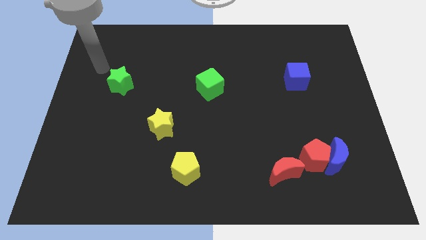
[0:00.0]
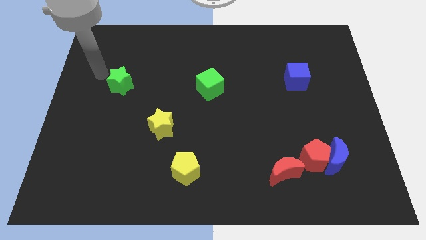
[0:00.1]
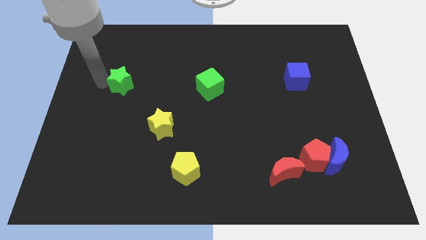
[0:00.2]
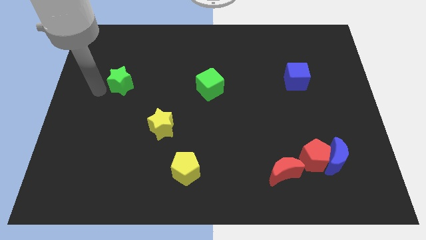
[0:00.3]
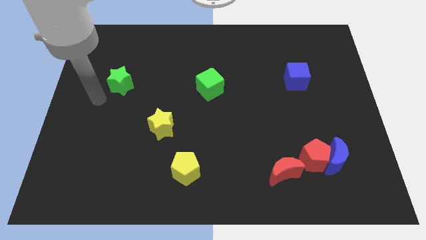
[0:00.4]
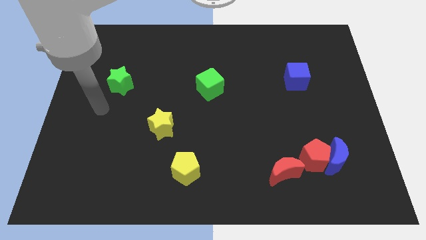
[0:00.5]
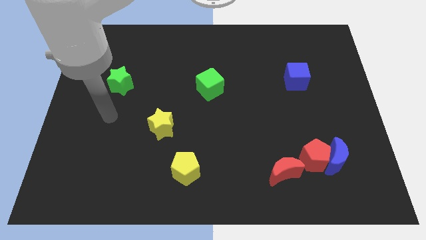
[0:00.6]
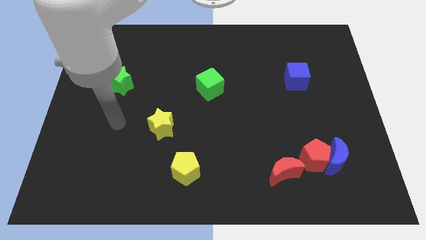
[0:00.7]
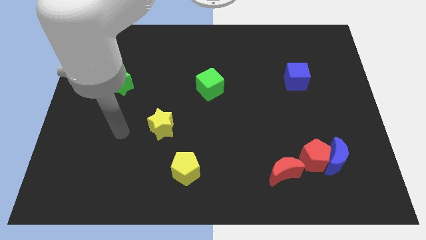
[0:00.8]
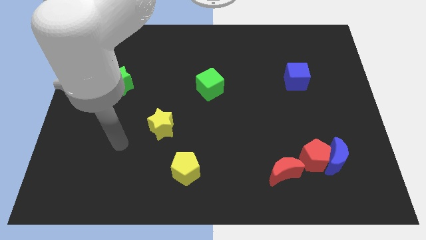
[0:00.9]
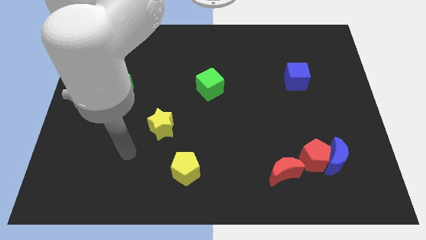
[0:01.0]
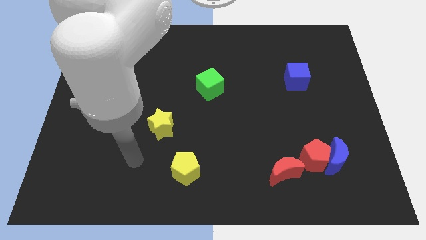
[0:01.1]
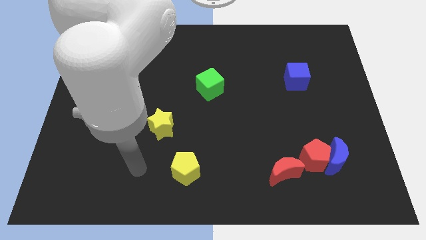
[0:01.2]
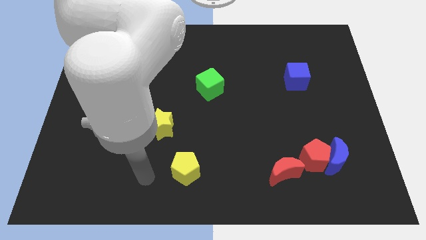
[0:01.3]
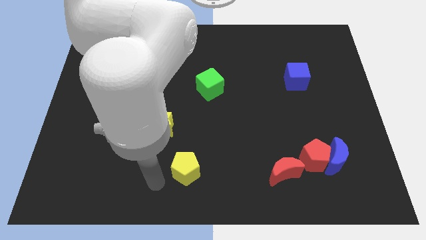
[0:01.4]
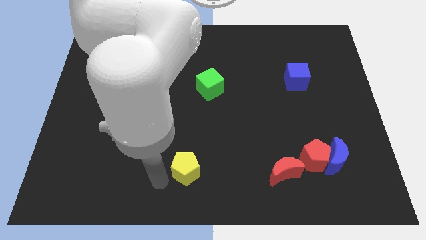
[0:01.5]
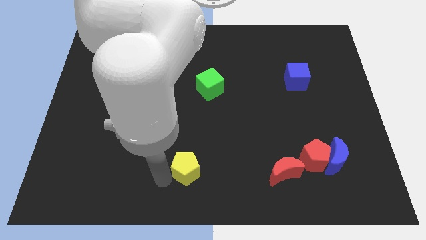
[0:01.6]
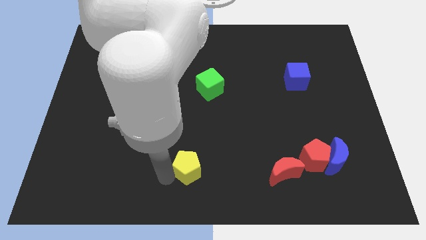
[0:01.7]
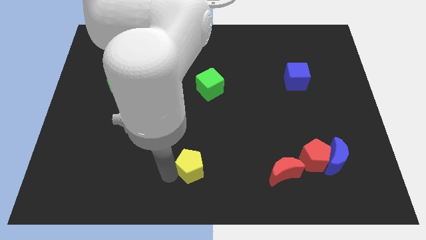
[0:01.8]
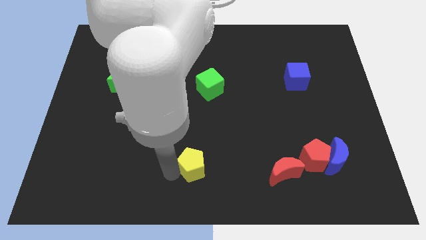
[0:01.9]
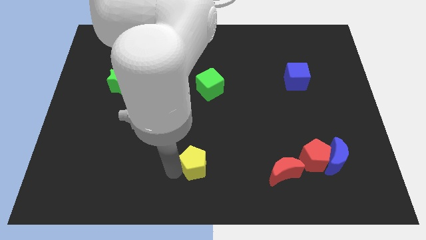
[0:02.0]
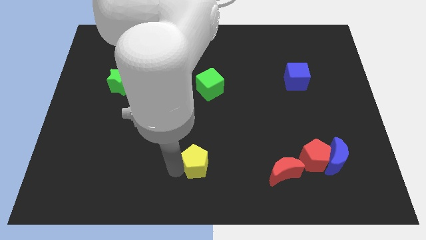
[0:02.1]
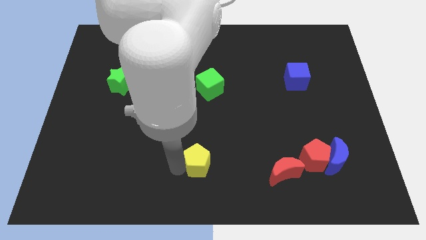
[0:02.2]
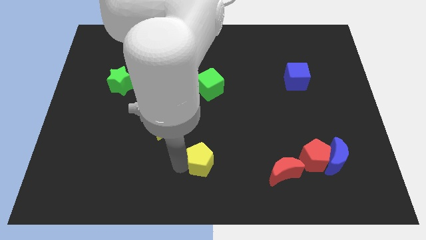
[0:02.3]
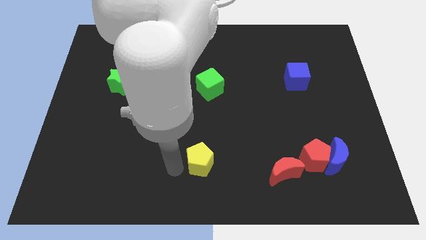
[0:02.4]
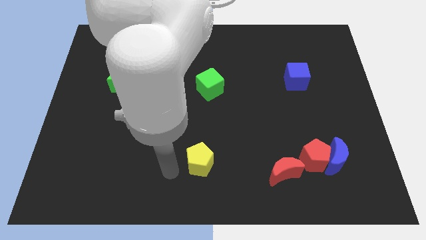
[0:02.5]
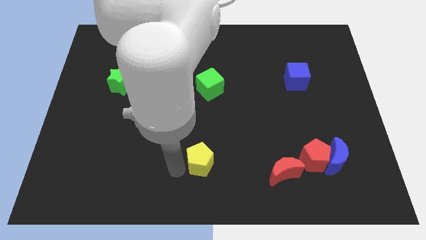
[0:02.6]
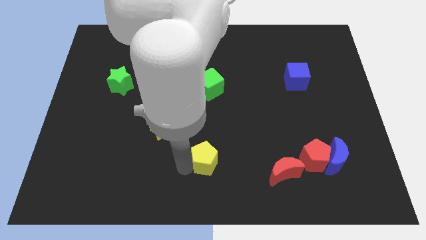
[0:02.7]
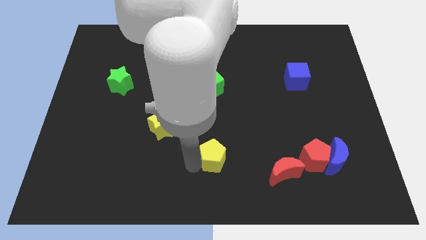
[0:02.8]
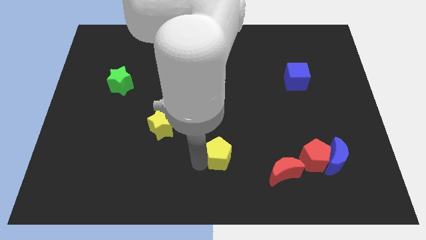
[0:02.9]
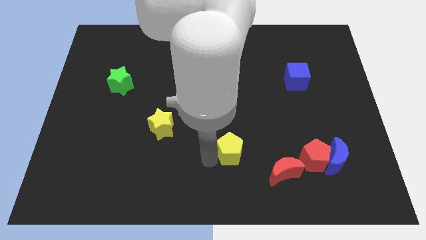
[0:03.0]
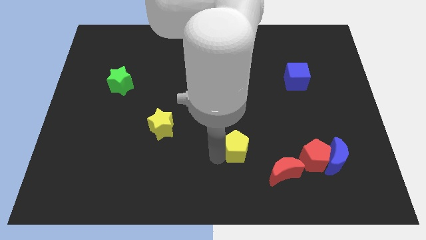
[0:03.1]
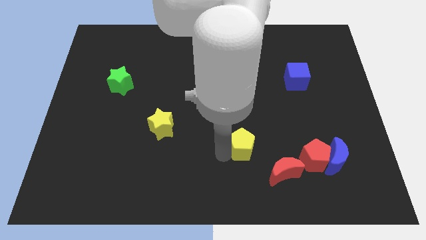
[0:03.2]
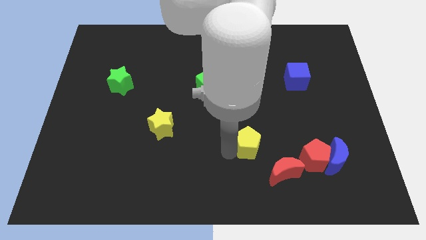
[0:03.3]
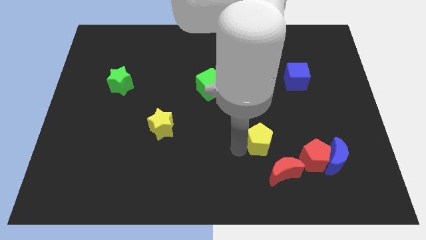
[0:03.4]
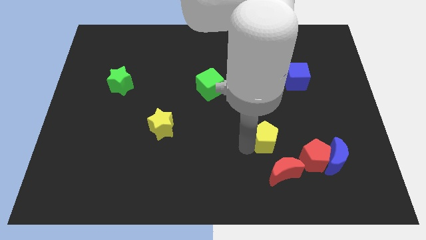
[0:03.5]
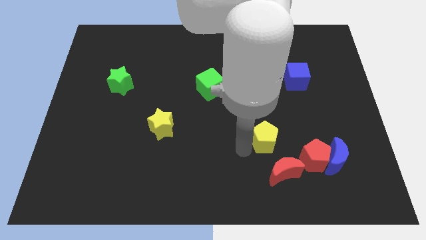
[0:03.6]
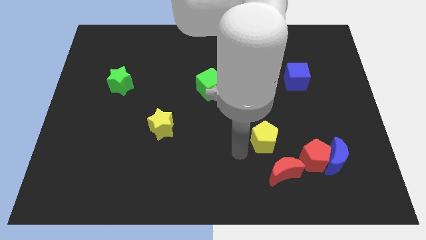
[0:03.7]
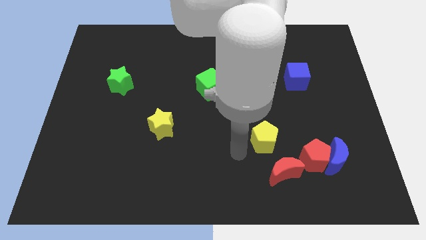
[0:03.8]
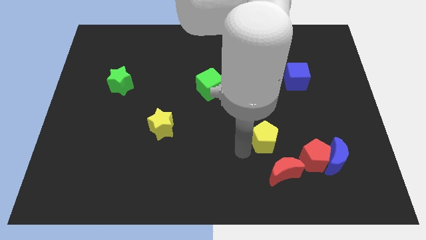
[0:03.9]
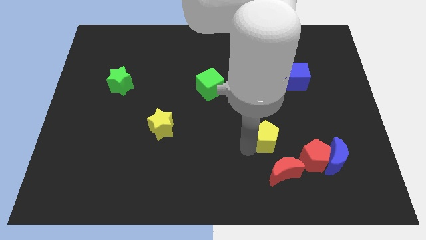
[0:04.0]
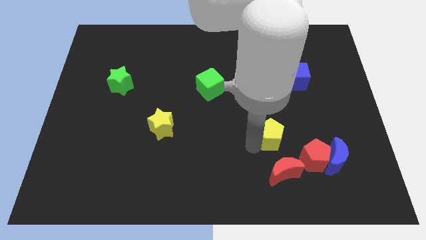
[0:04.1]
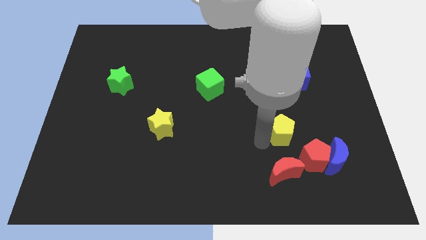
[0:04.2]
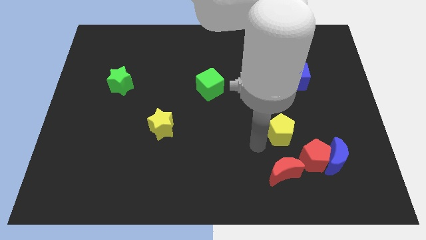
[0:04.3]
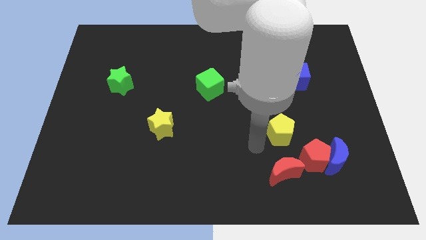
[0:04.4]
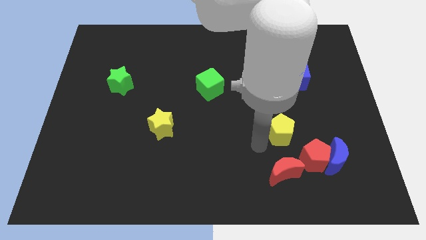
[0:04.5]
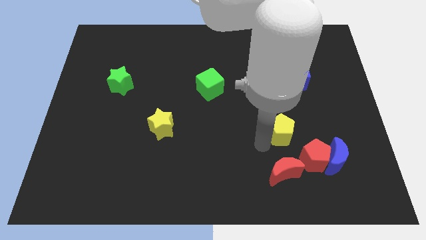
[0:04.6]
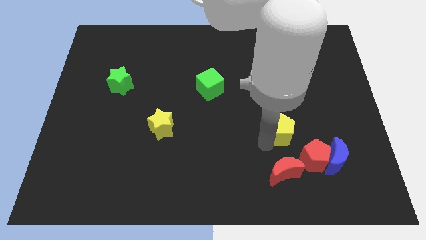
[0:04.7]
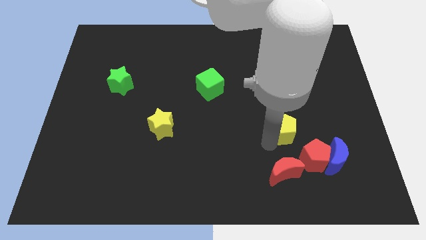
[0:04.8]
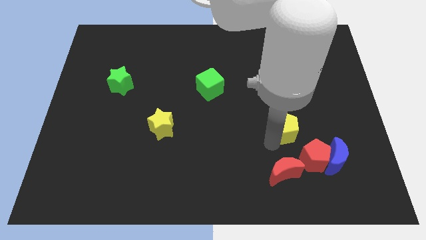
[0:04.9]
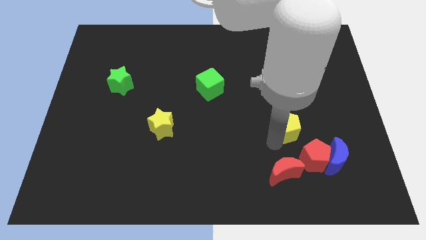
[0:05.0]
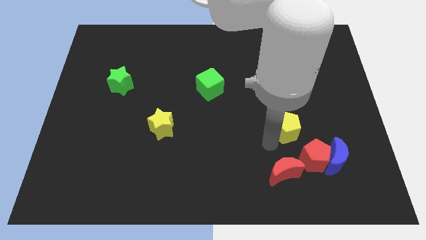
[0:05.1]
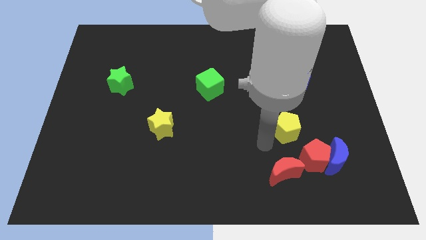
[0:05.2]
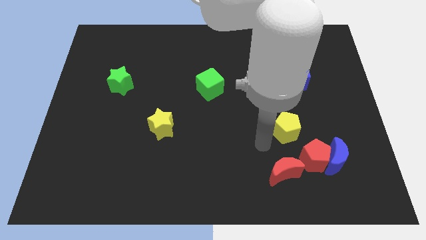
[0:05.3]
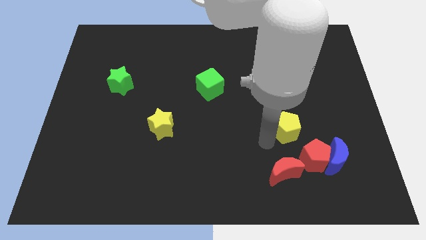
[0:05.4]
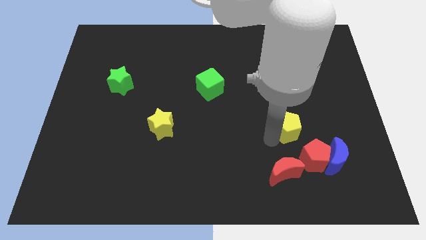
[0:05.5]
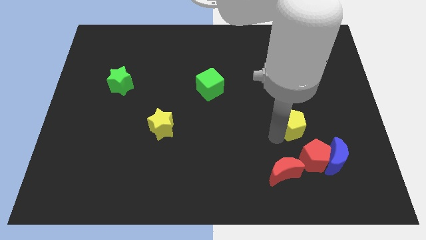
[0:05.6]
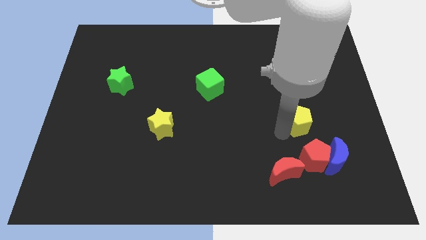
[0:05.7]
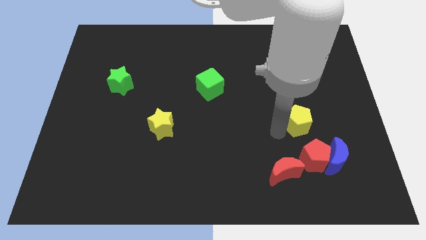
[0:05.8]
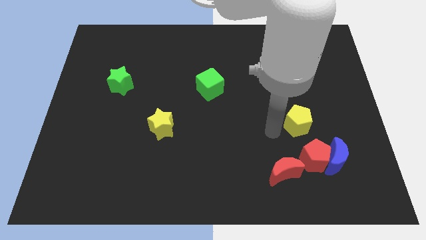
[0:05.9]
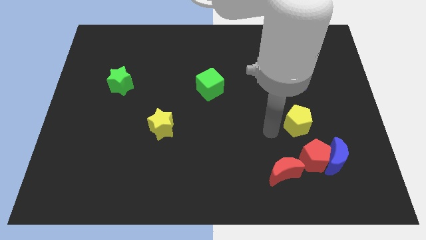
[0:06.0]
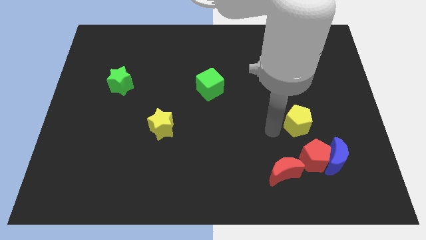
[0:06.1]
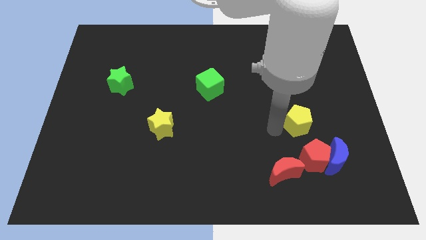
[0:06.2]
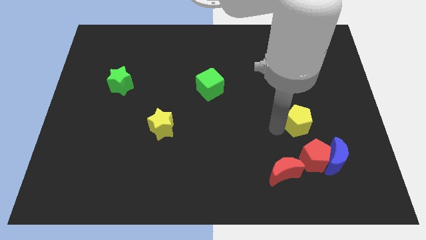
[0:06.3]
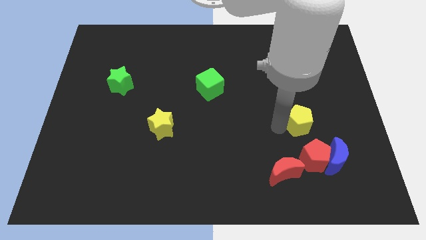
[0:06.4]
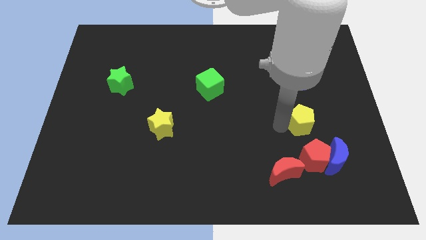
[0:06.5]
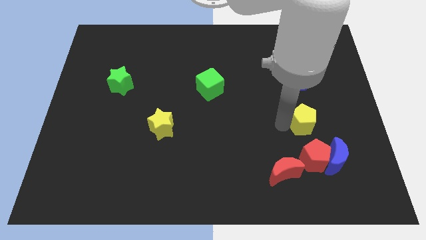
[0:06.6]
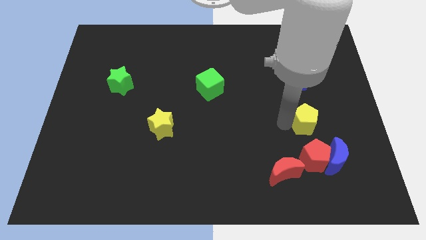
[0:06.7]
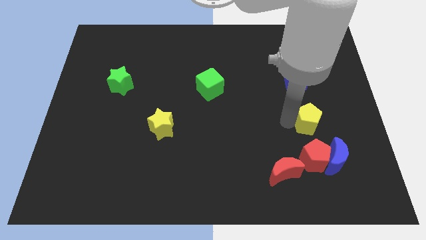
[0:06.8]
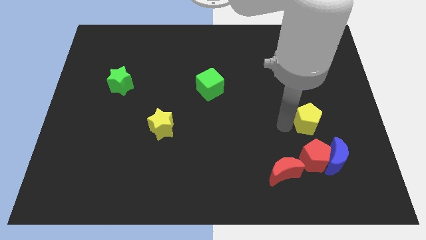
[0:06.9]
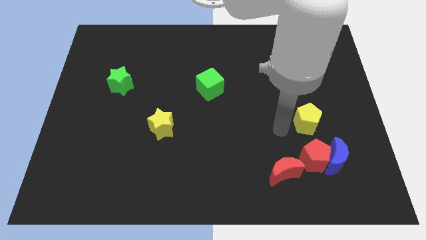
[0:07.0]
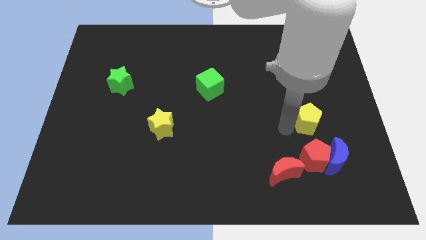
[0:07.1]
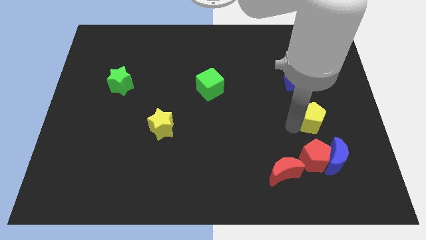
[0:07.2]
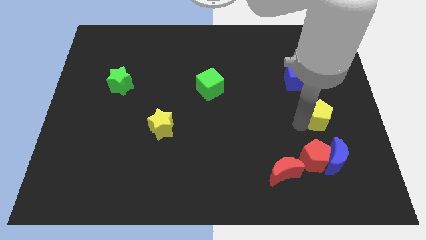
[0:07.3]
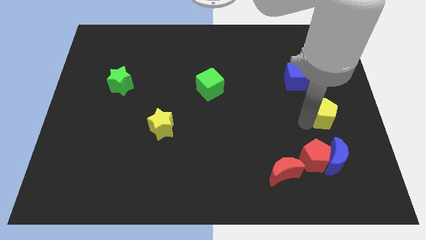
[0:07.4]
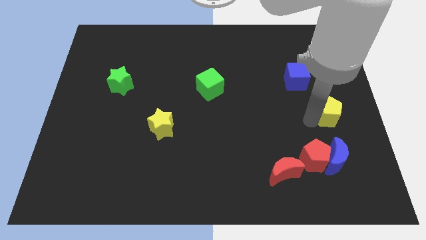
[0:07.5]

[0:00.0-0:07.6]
put the yellow pentagon to the right side
